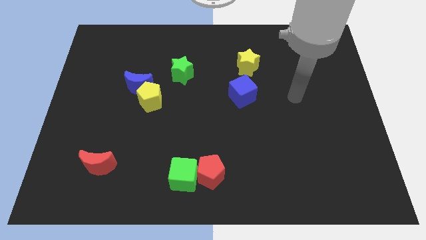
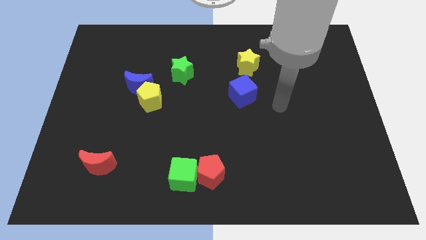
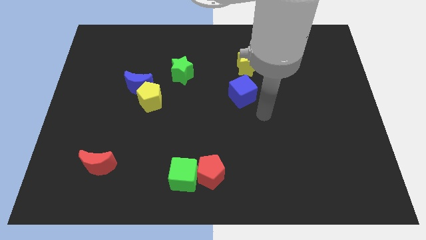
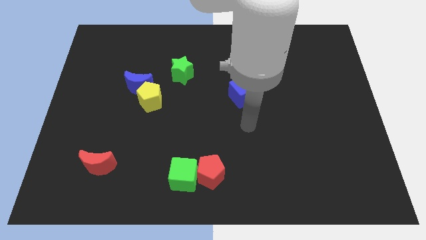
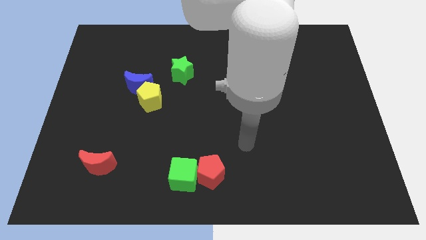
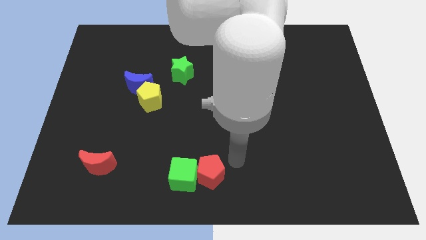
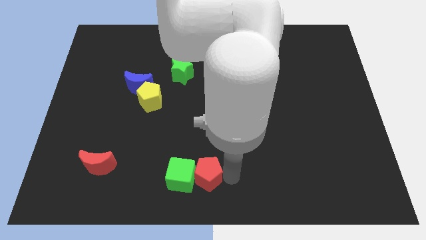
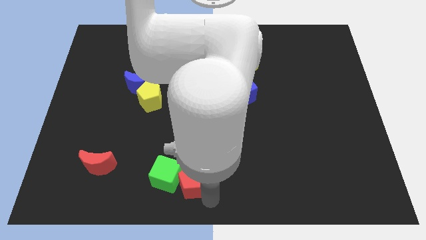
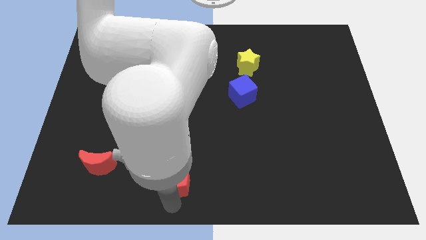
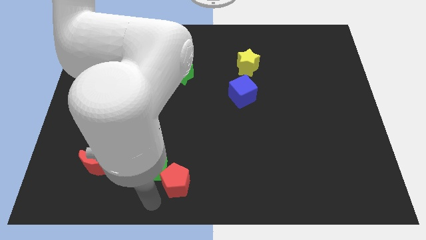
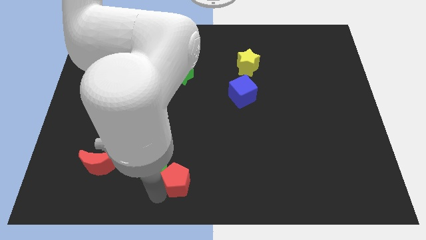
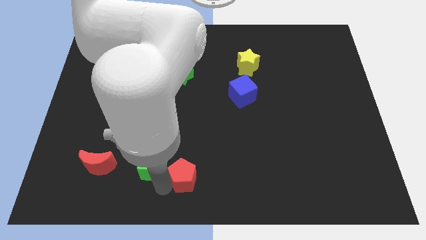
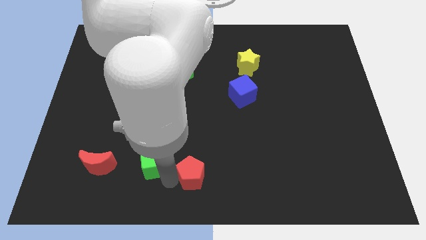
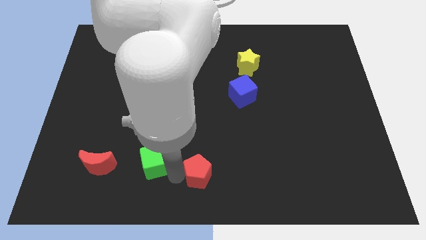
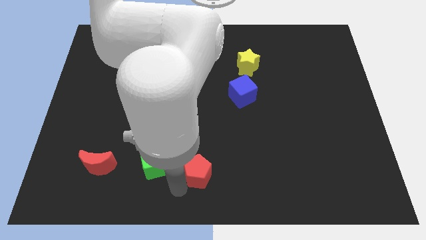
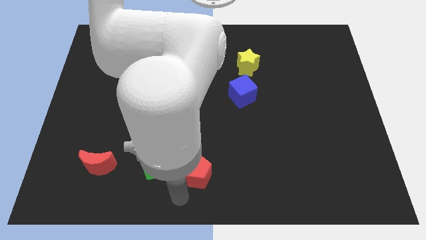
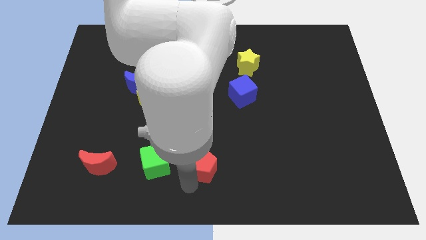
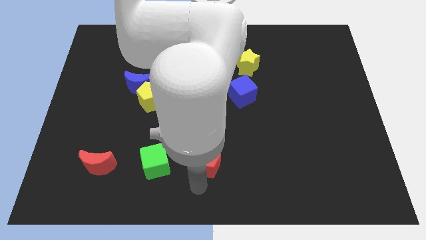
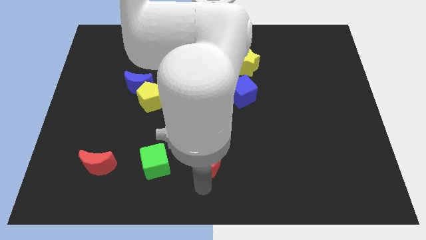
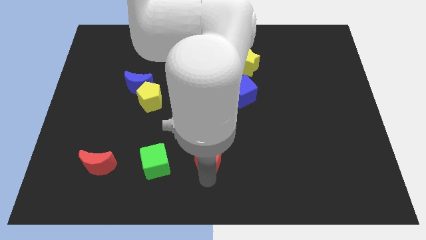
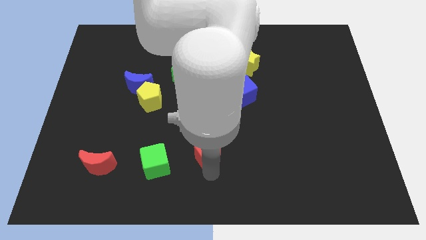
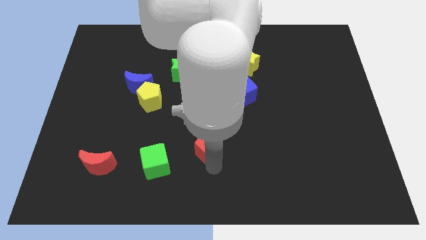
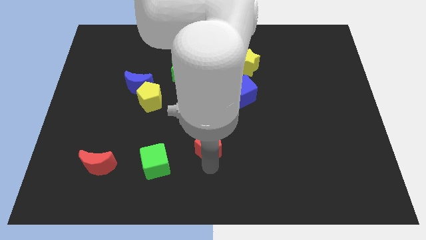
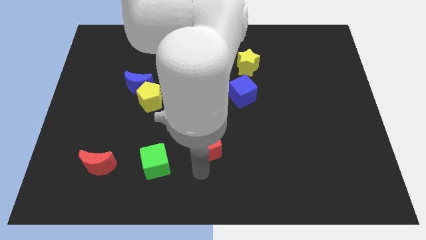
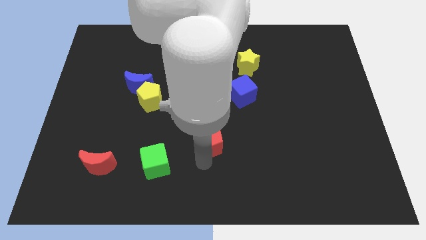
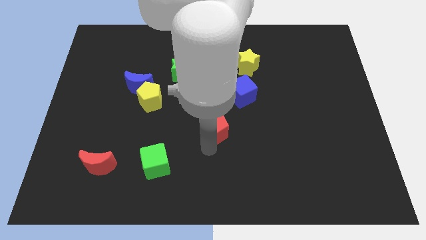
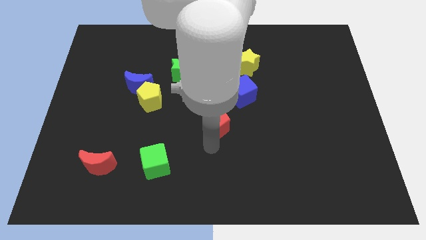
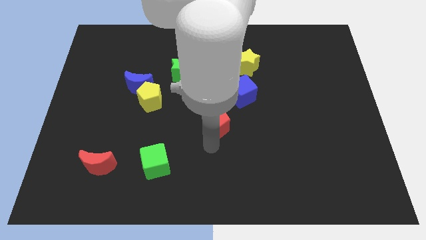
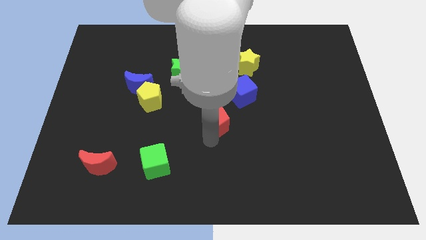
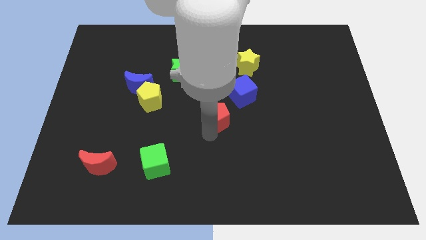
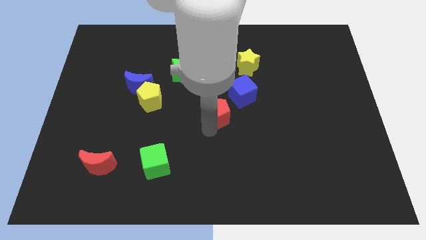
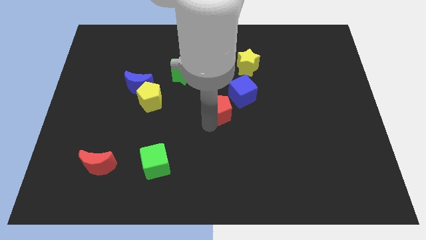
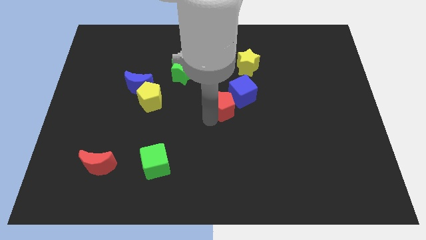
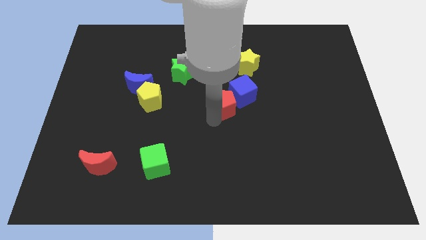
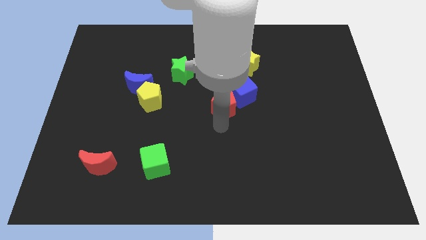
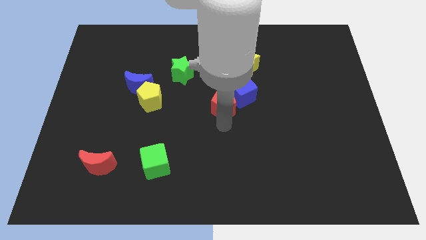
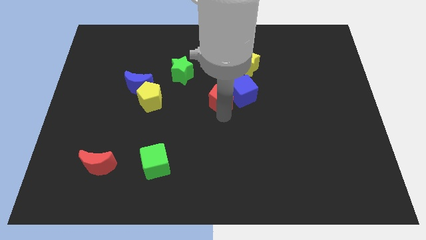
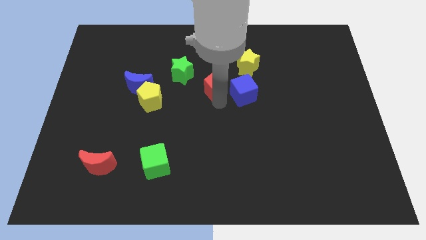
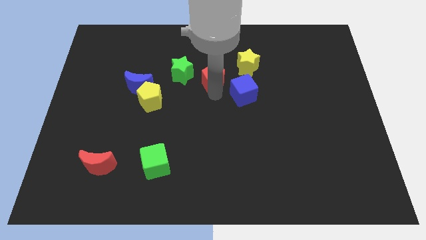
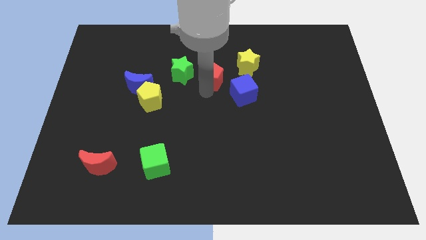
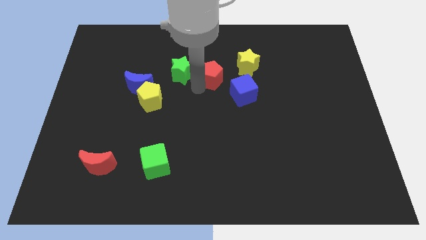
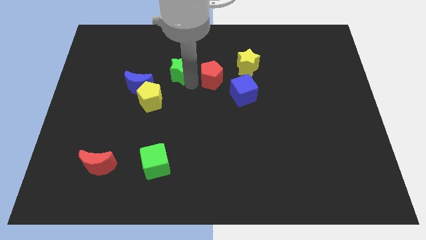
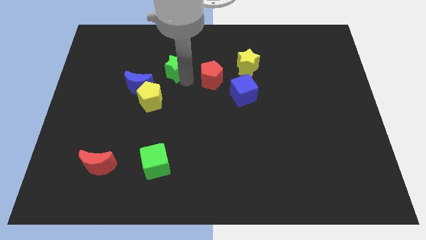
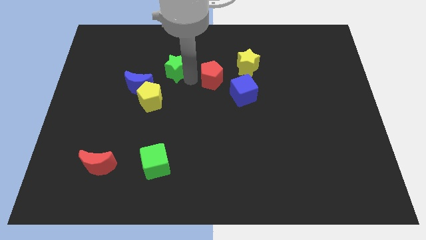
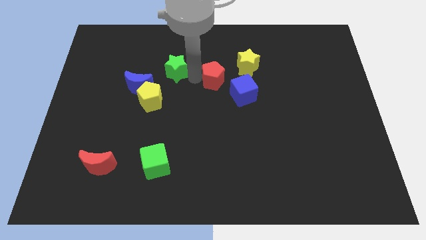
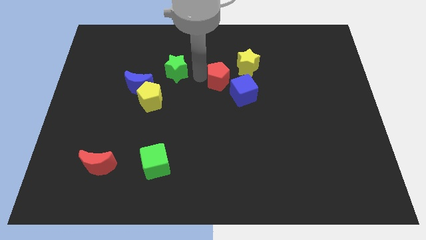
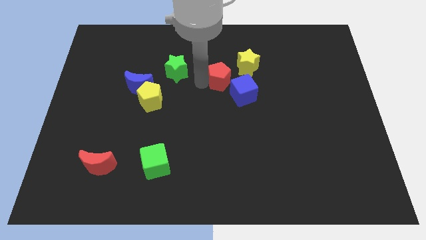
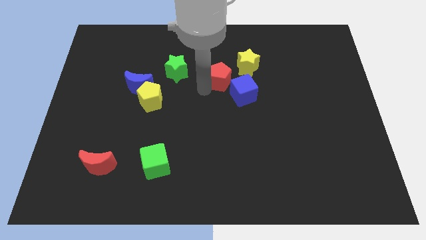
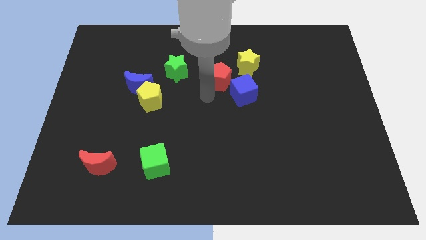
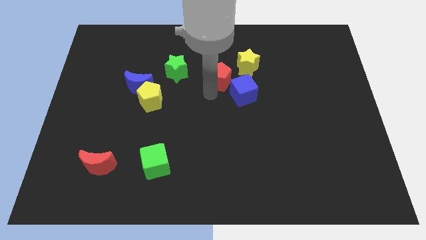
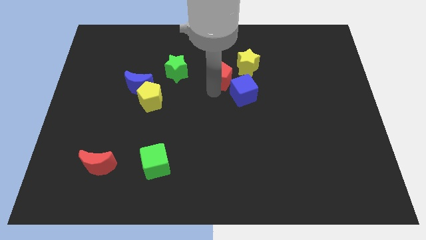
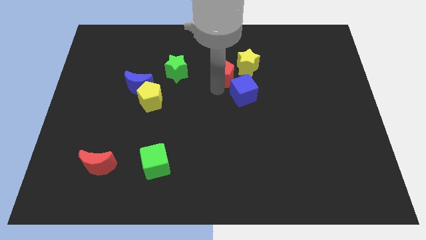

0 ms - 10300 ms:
put the red pentagon to the top of the blue cube

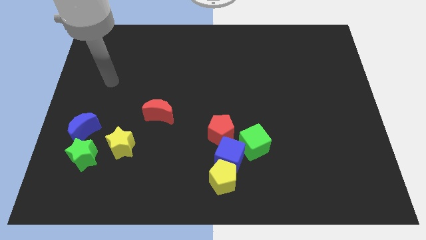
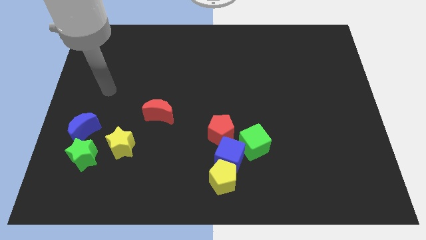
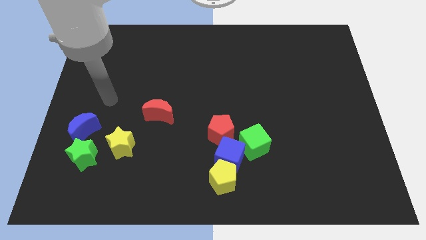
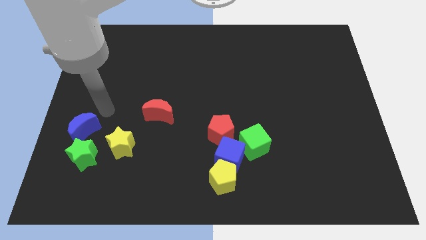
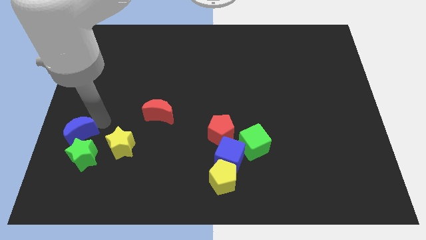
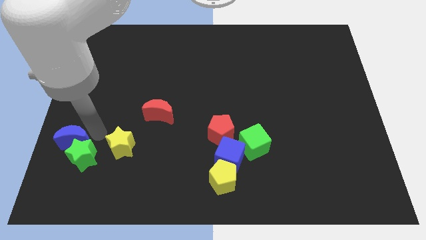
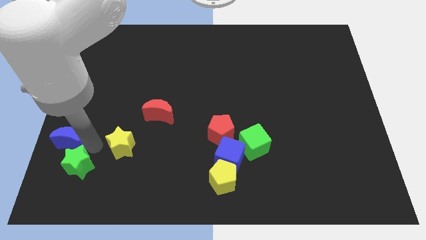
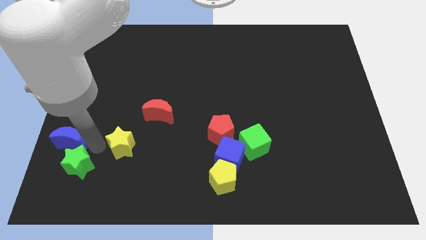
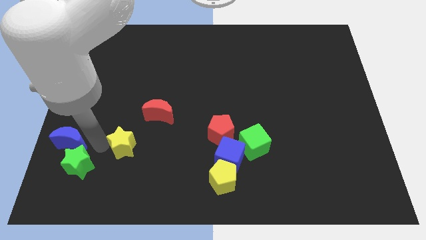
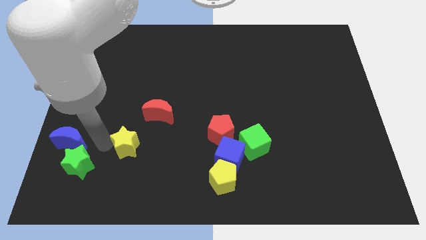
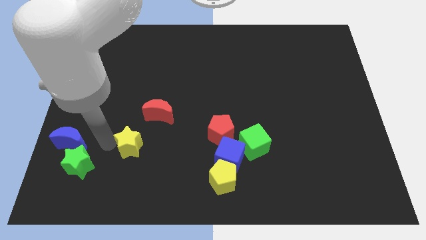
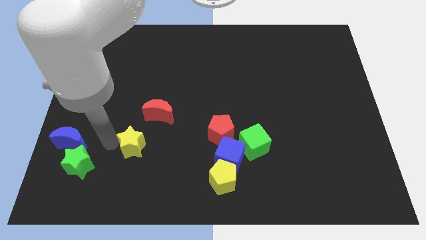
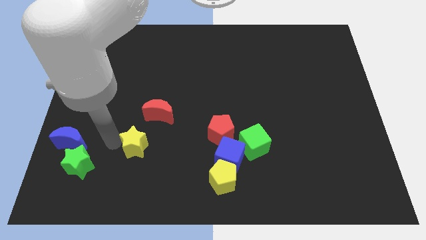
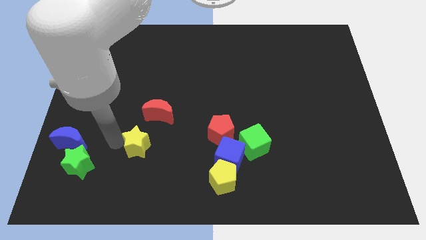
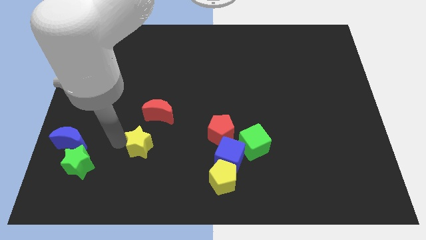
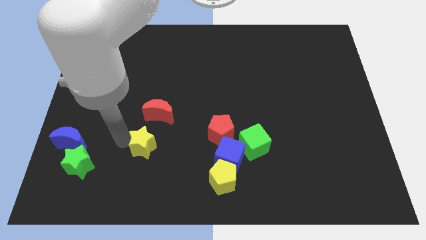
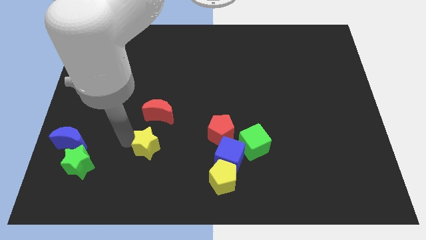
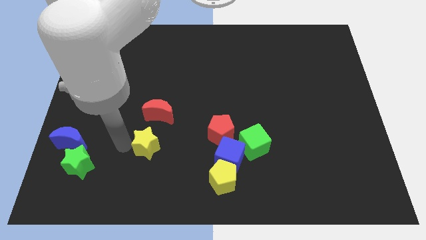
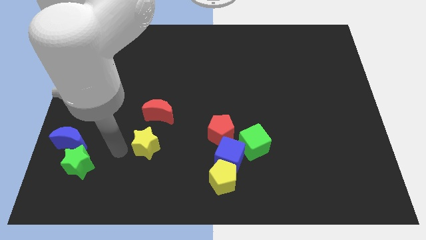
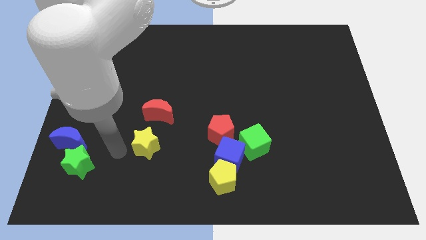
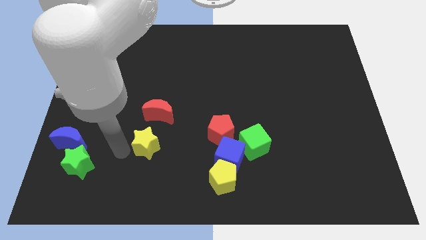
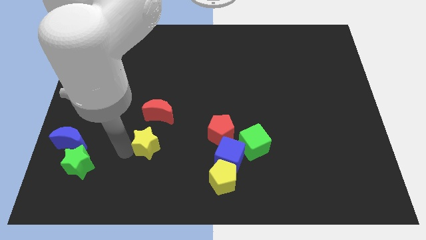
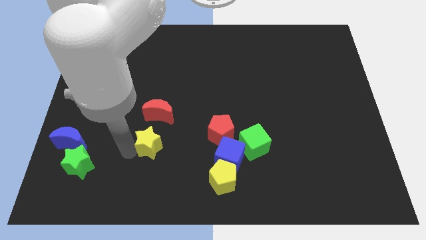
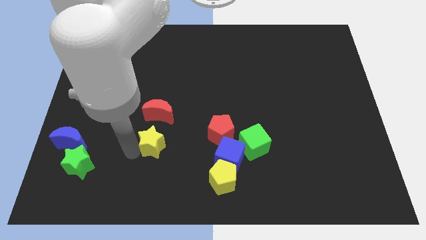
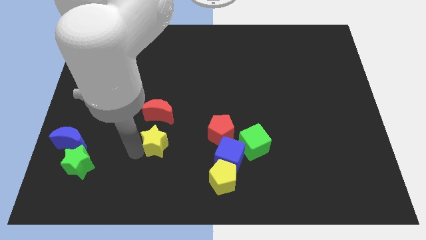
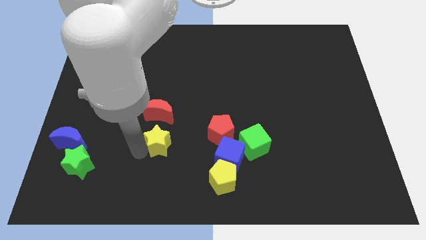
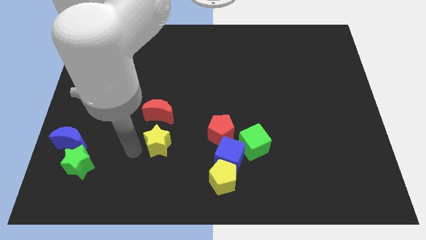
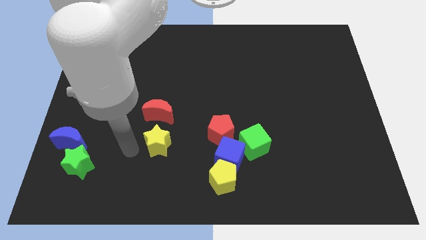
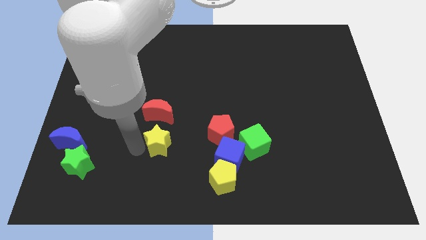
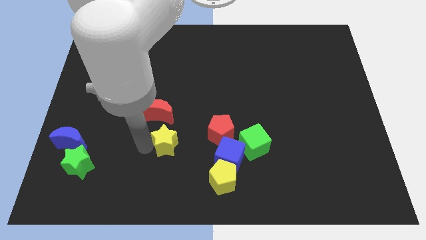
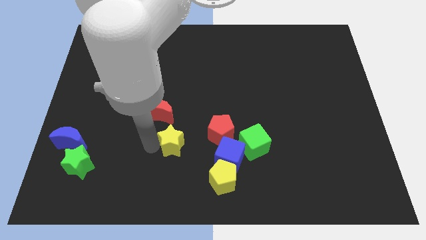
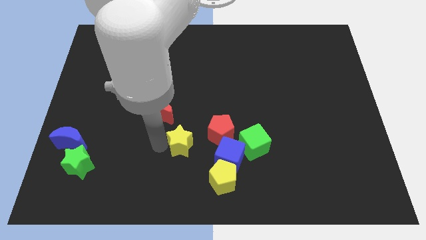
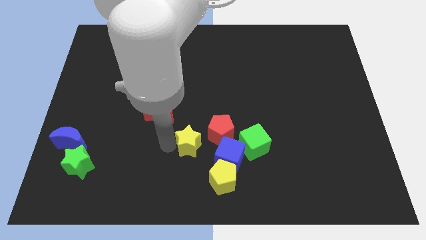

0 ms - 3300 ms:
move the yellow star to the top left of the blue cube

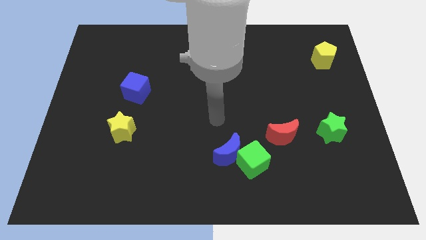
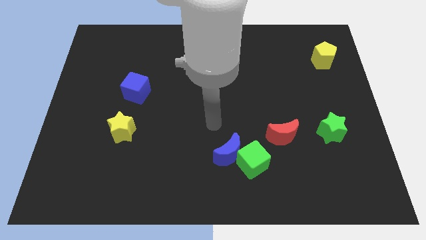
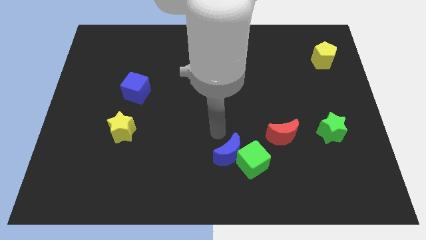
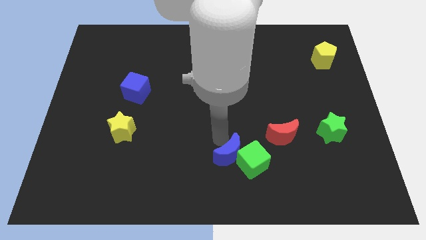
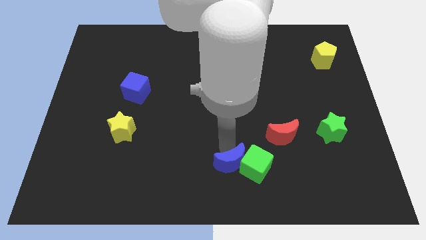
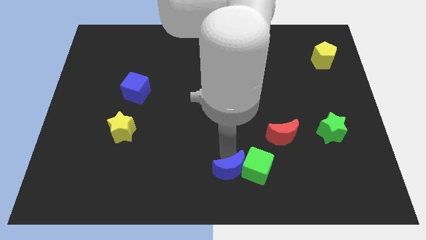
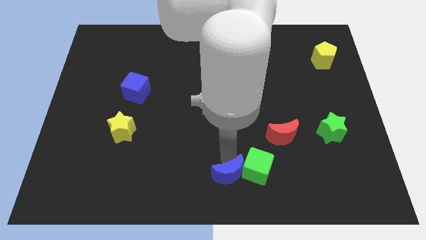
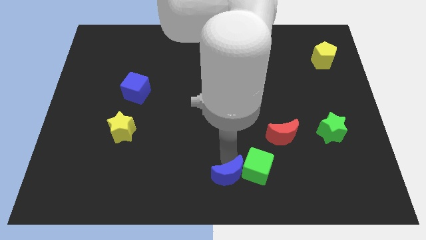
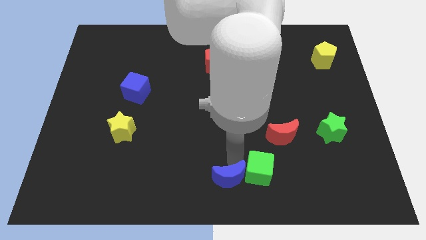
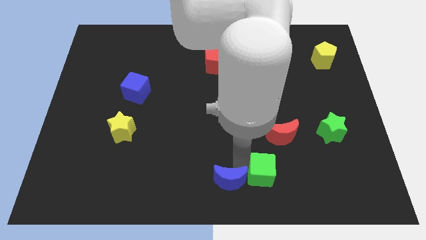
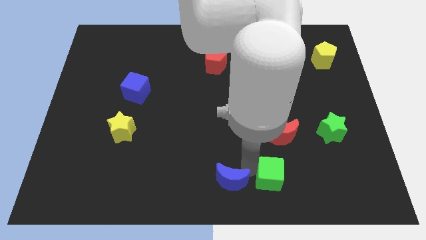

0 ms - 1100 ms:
move the green cube to the bottom side of the red moon
